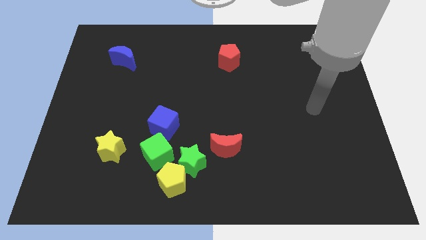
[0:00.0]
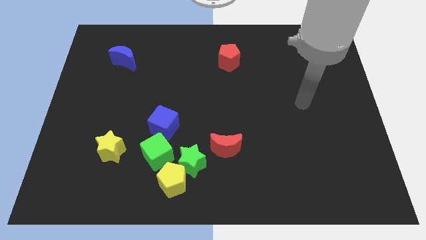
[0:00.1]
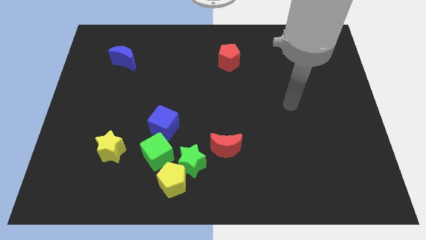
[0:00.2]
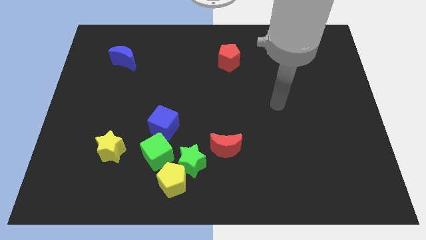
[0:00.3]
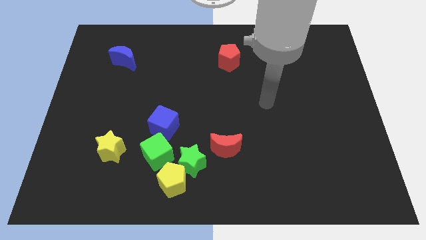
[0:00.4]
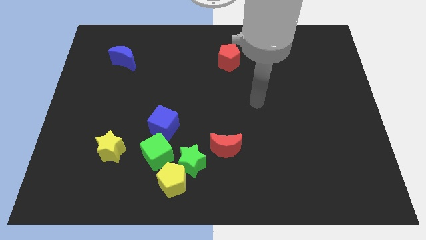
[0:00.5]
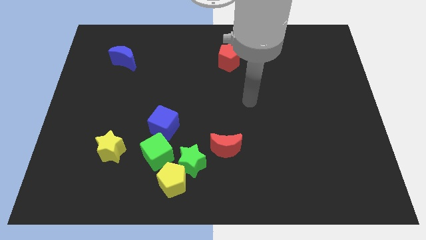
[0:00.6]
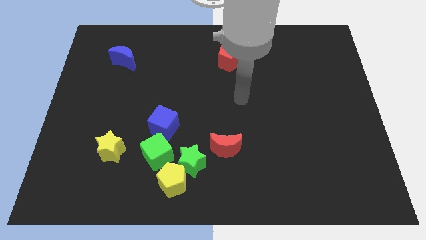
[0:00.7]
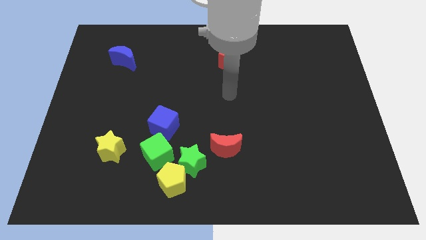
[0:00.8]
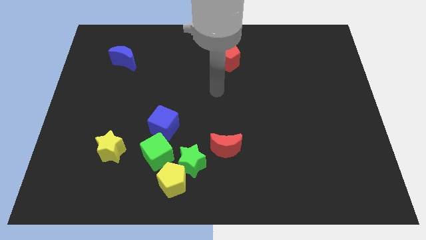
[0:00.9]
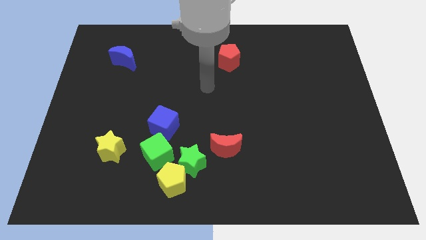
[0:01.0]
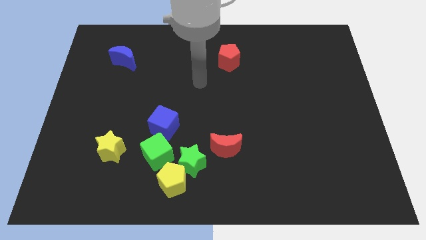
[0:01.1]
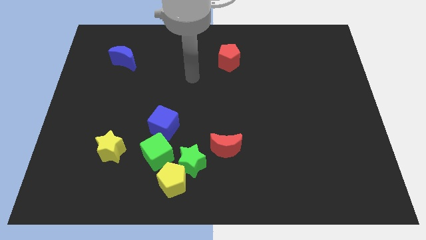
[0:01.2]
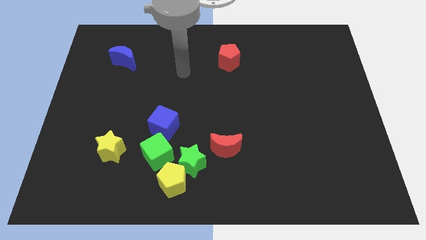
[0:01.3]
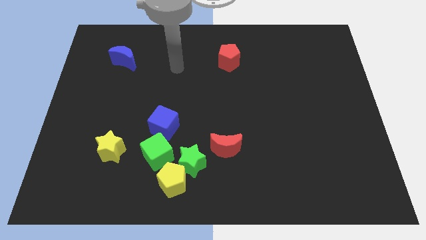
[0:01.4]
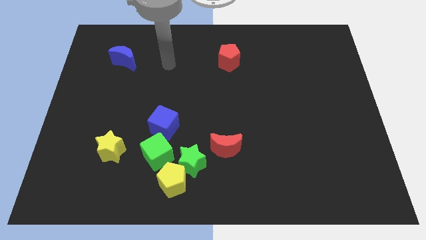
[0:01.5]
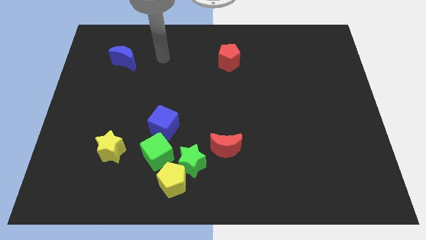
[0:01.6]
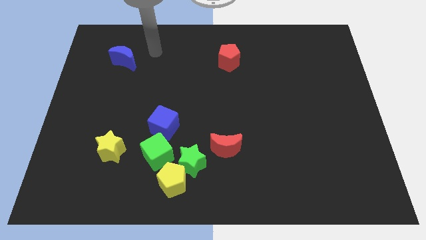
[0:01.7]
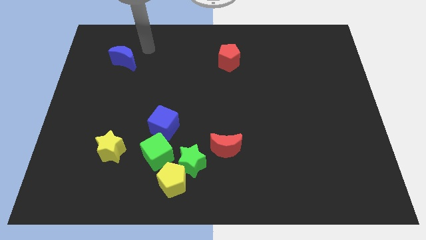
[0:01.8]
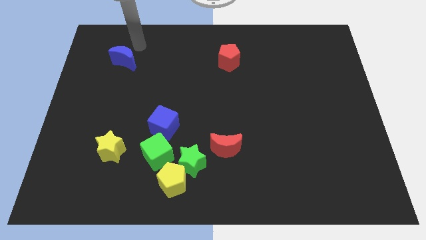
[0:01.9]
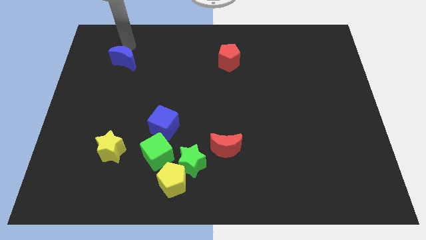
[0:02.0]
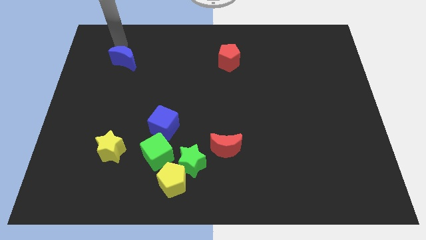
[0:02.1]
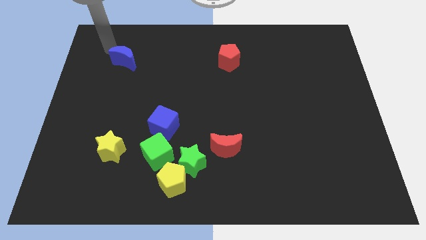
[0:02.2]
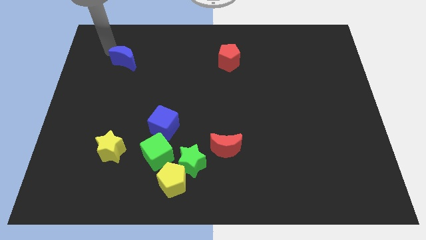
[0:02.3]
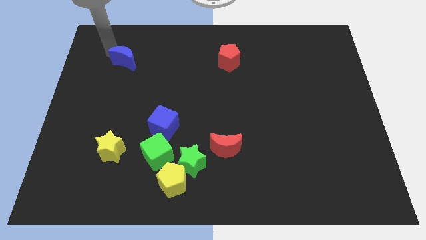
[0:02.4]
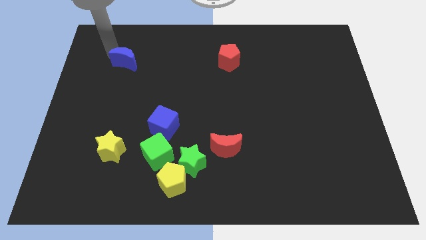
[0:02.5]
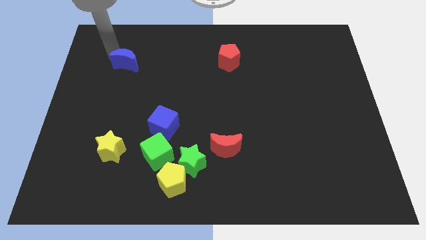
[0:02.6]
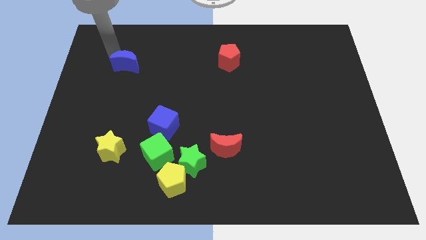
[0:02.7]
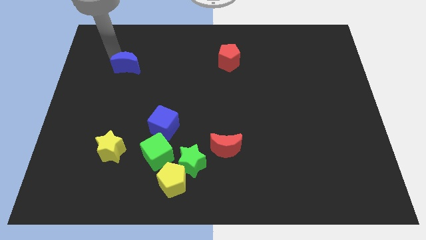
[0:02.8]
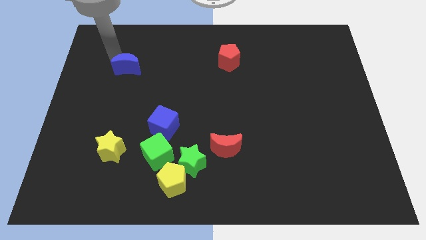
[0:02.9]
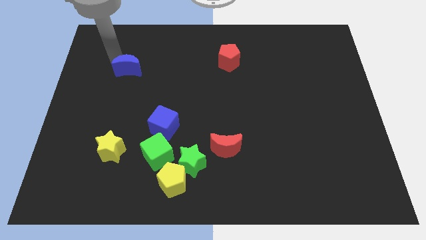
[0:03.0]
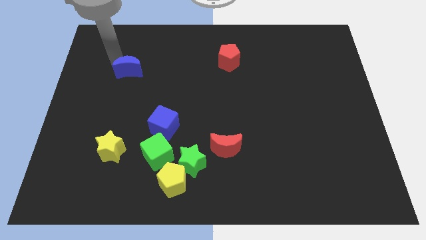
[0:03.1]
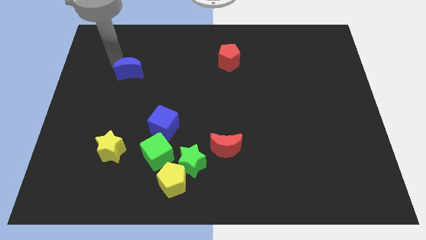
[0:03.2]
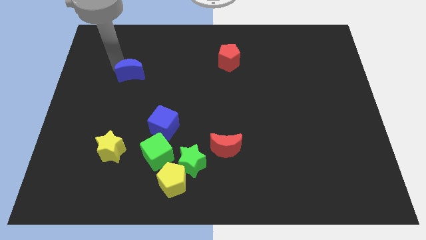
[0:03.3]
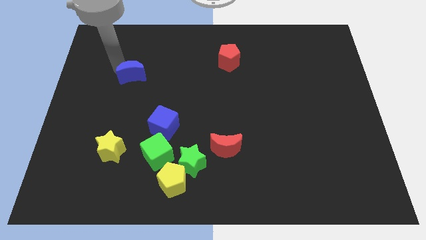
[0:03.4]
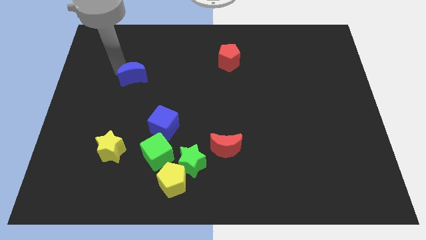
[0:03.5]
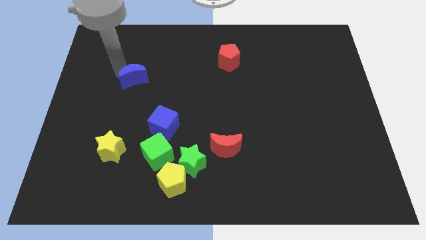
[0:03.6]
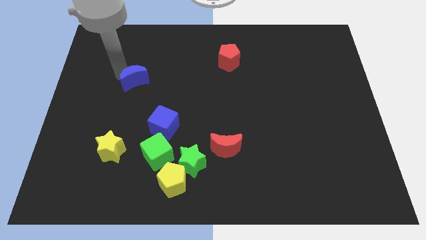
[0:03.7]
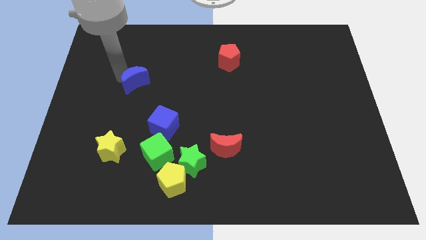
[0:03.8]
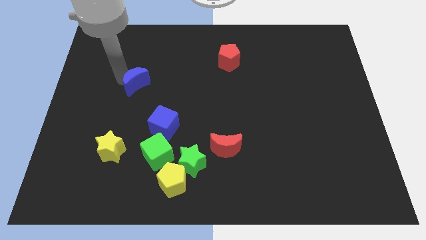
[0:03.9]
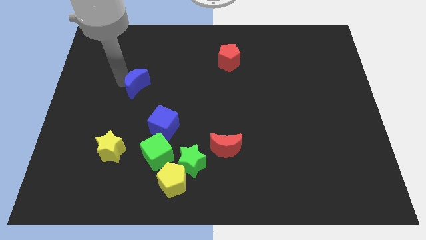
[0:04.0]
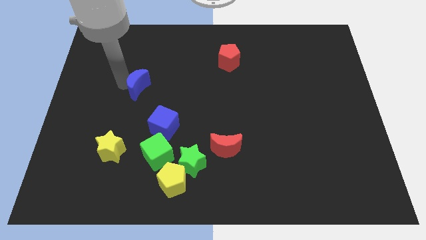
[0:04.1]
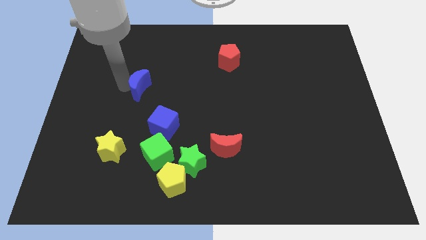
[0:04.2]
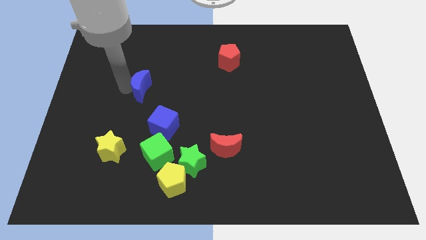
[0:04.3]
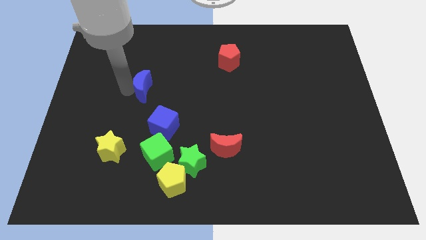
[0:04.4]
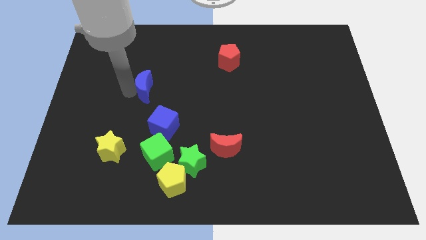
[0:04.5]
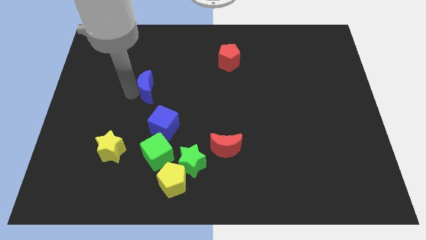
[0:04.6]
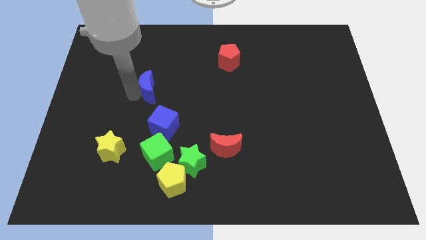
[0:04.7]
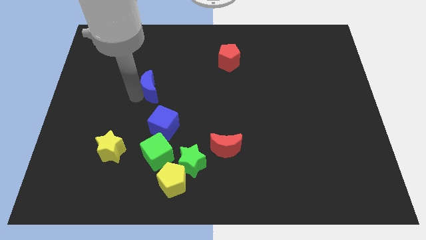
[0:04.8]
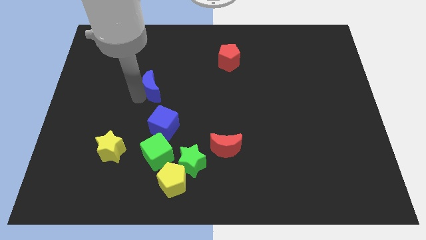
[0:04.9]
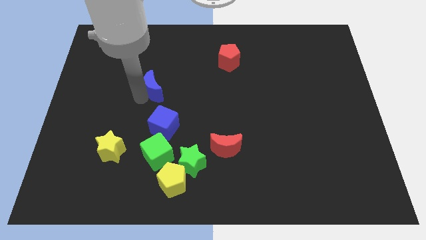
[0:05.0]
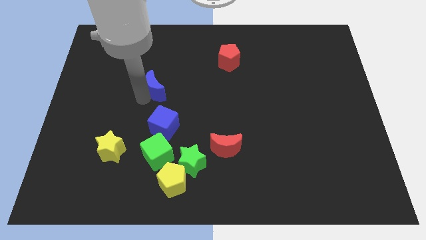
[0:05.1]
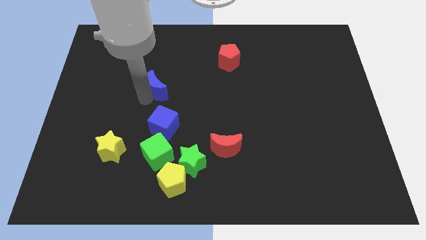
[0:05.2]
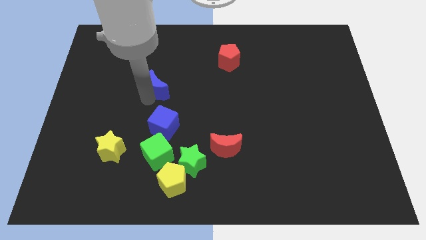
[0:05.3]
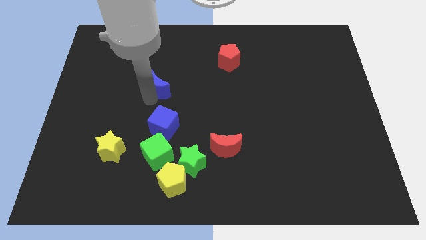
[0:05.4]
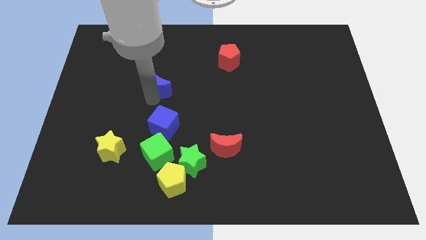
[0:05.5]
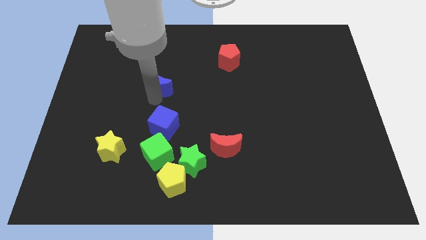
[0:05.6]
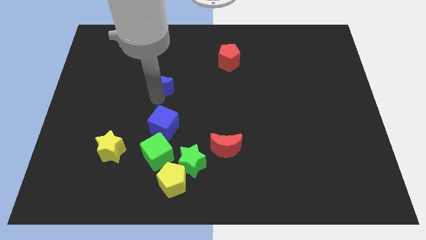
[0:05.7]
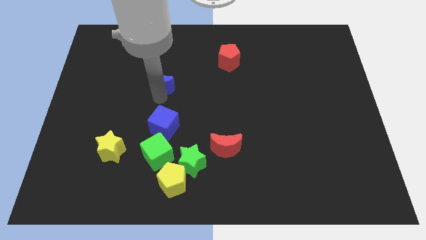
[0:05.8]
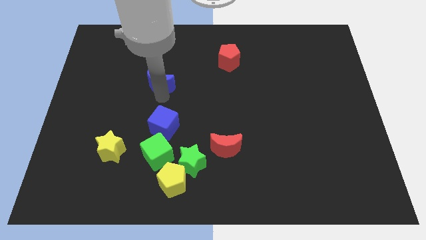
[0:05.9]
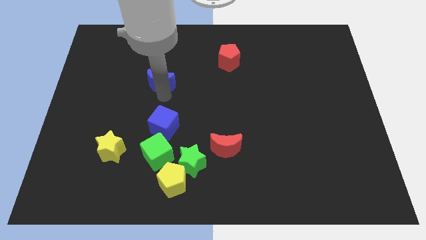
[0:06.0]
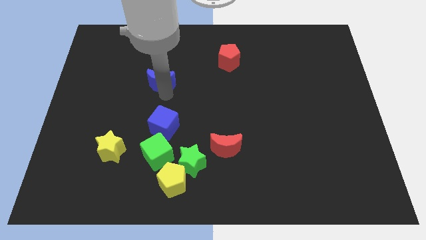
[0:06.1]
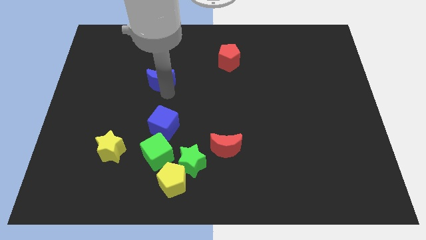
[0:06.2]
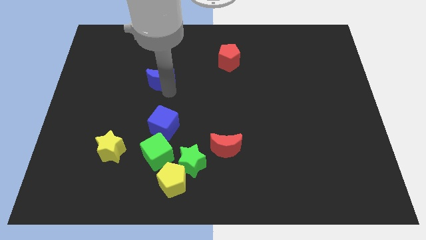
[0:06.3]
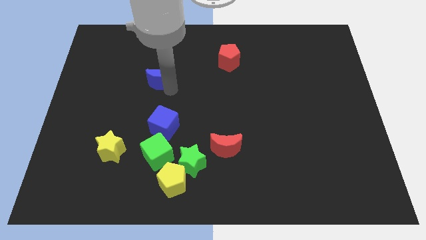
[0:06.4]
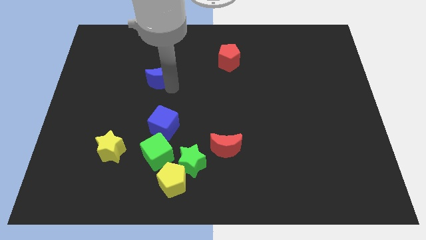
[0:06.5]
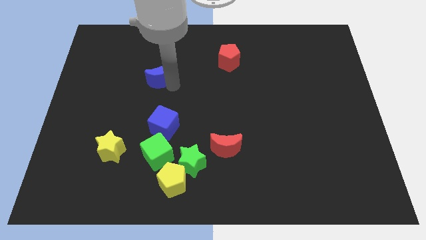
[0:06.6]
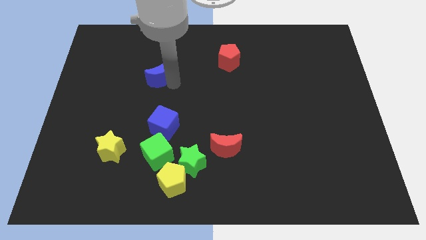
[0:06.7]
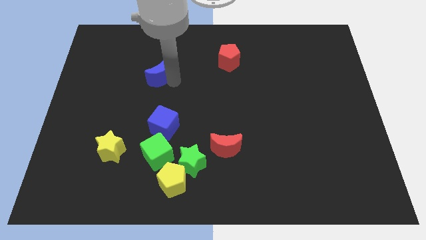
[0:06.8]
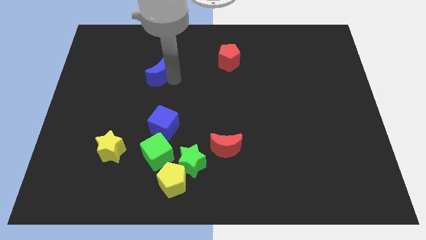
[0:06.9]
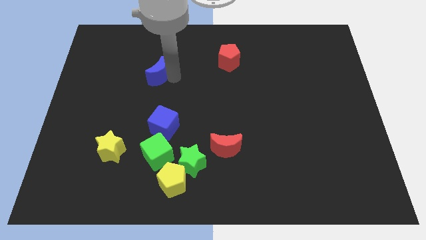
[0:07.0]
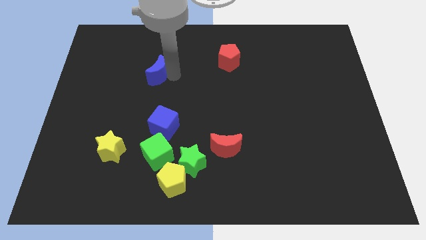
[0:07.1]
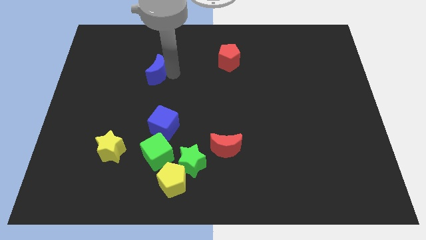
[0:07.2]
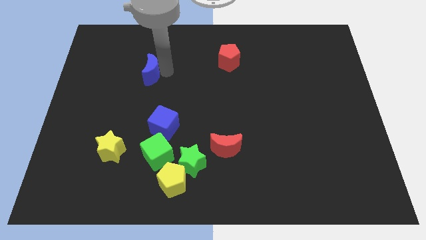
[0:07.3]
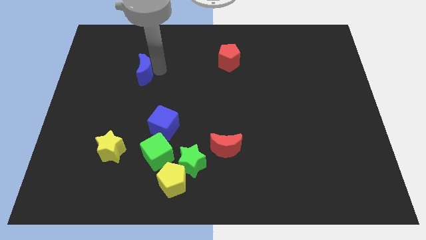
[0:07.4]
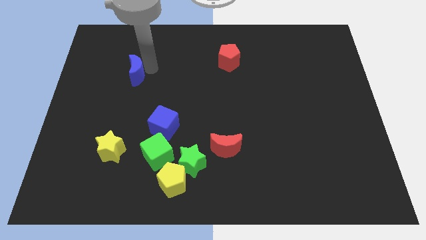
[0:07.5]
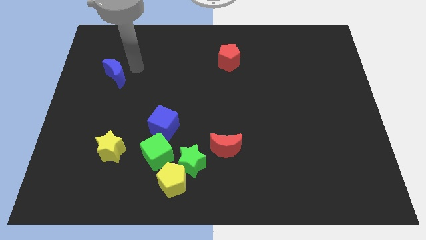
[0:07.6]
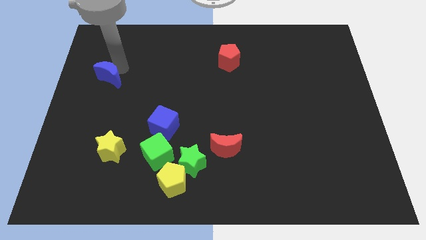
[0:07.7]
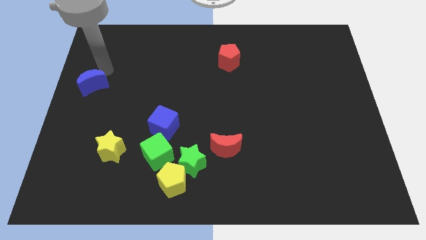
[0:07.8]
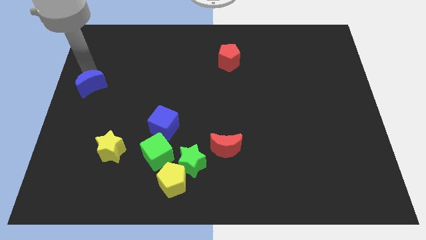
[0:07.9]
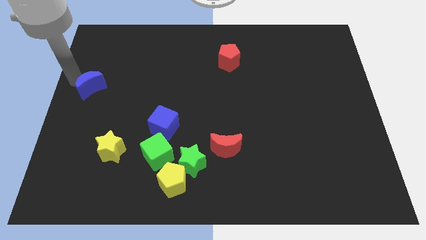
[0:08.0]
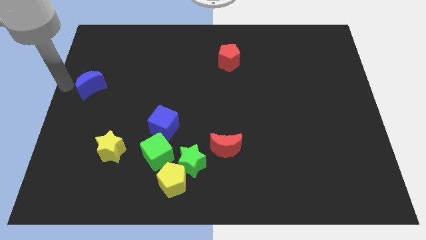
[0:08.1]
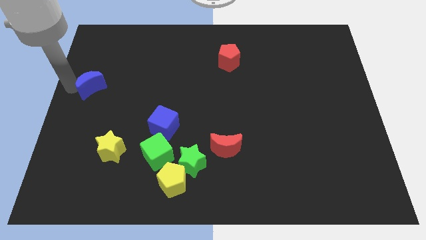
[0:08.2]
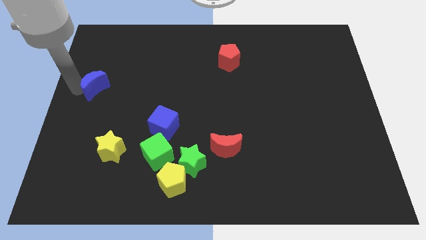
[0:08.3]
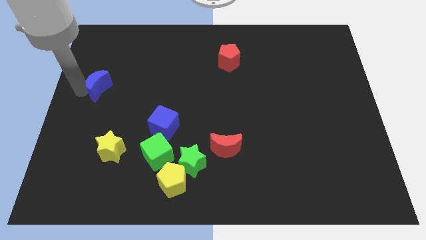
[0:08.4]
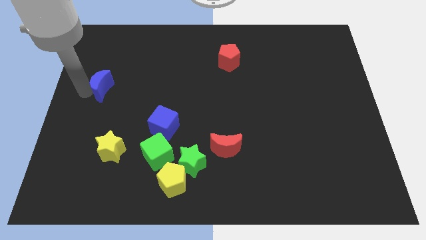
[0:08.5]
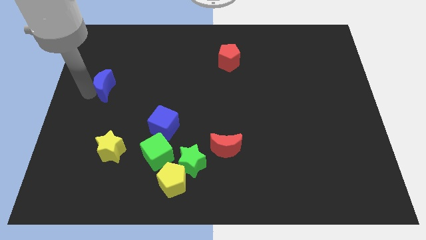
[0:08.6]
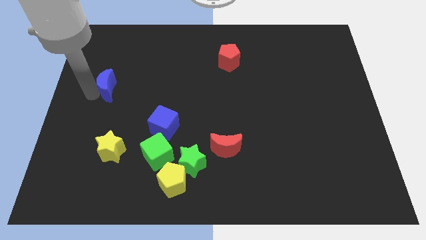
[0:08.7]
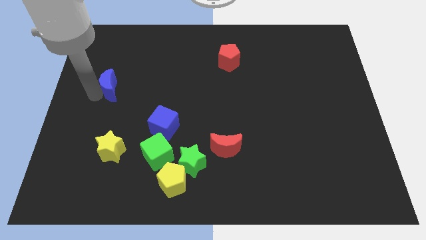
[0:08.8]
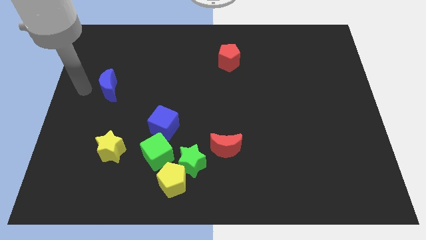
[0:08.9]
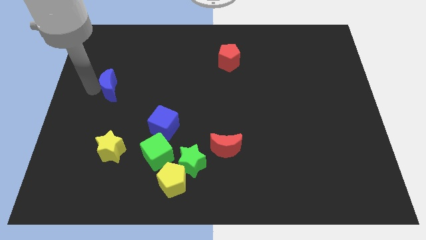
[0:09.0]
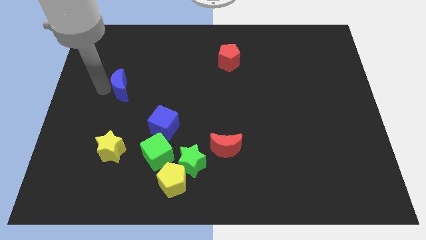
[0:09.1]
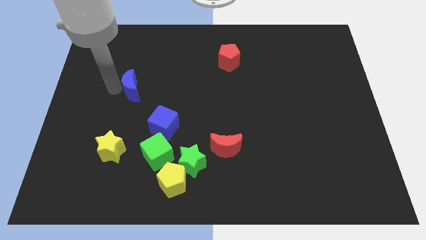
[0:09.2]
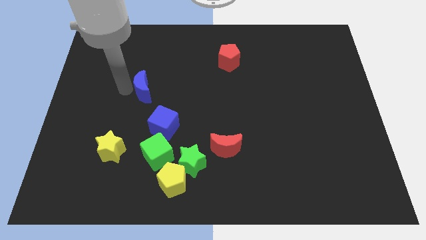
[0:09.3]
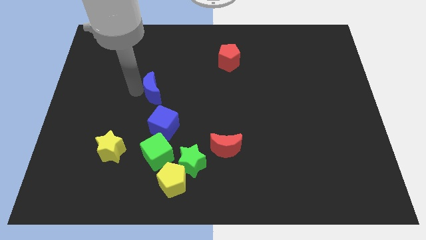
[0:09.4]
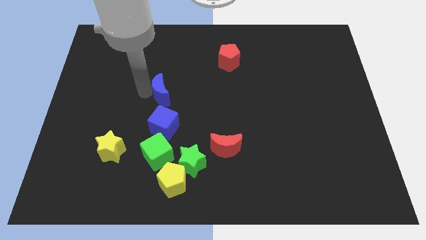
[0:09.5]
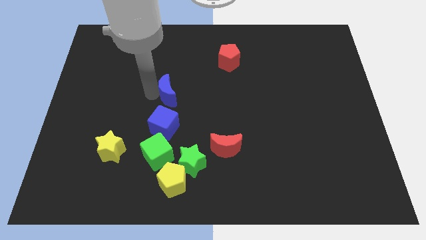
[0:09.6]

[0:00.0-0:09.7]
slide the blue moon to the center
